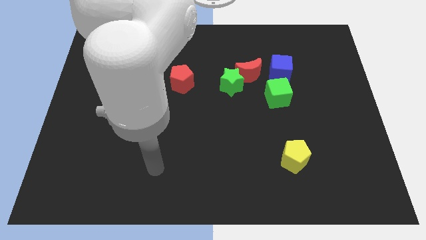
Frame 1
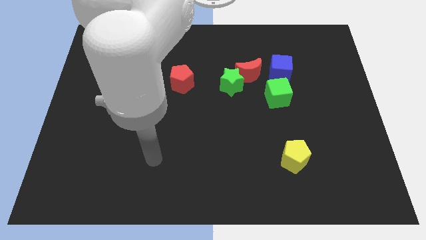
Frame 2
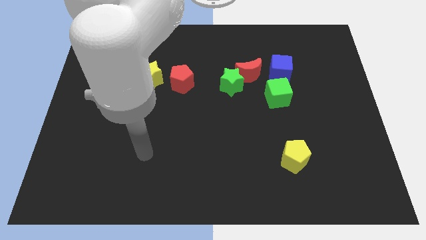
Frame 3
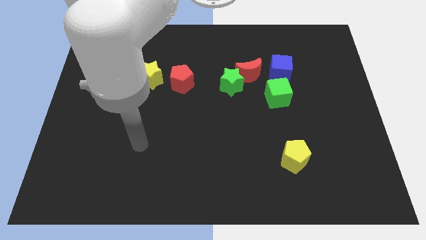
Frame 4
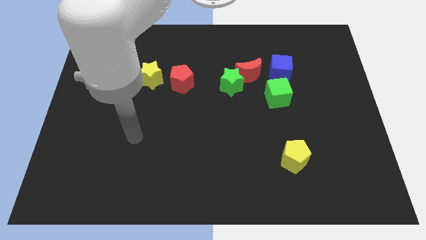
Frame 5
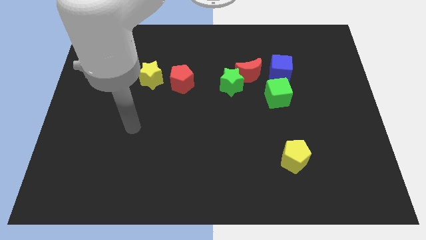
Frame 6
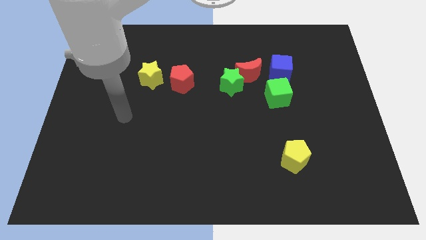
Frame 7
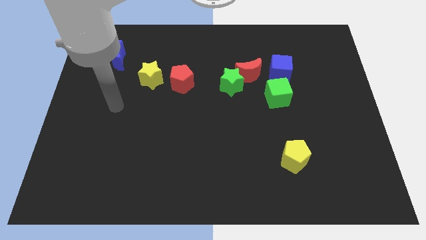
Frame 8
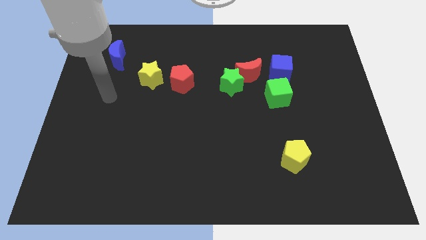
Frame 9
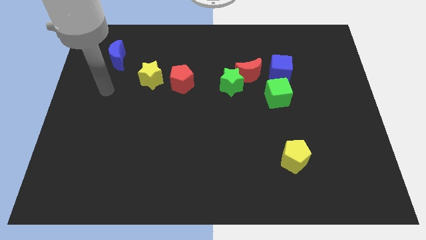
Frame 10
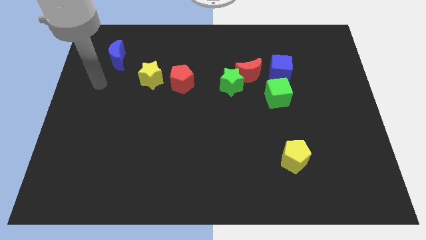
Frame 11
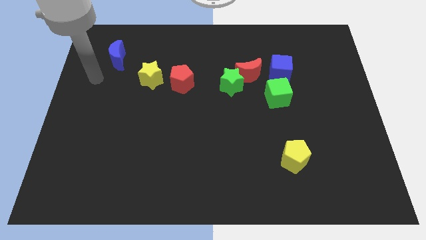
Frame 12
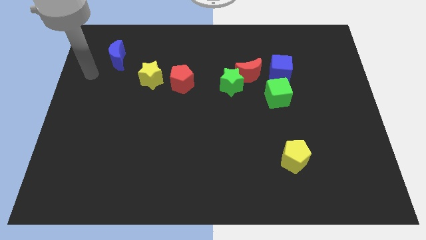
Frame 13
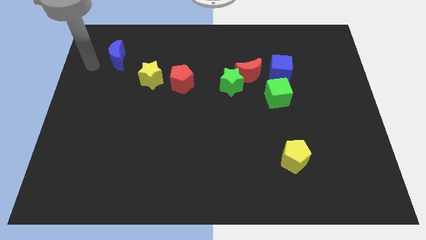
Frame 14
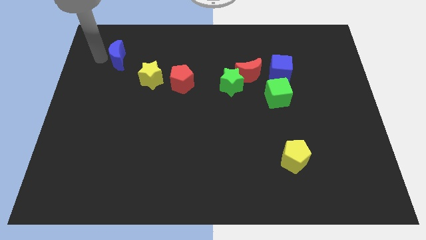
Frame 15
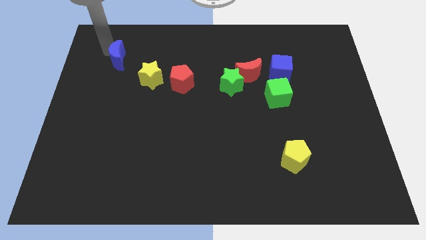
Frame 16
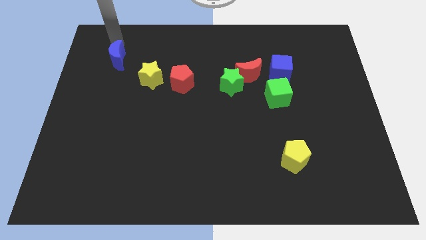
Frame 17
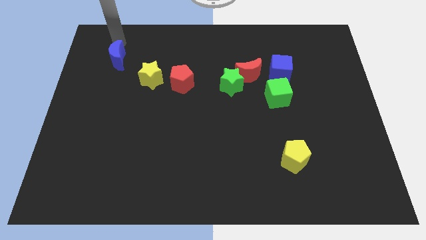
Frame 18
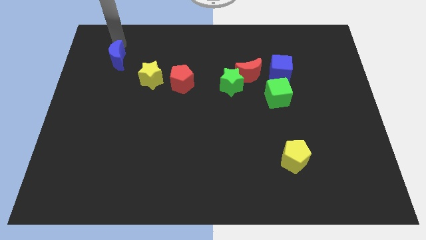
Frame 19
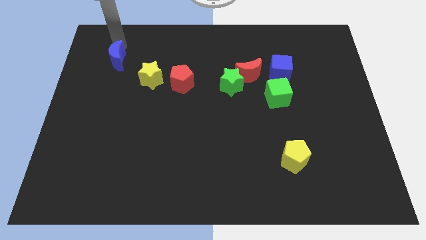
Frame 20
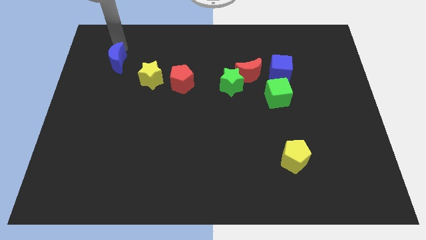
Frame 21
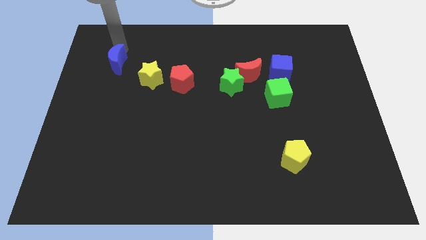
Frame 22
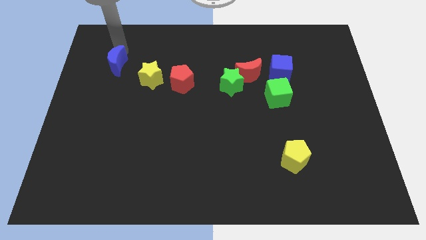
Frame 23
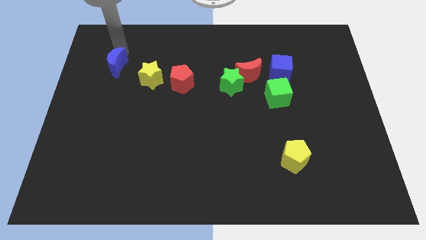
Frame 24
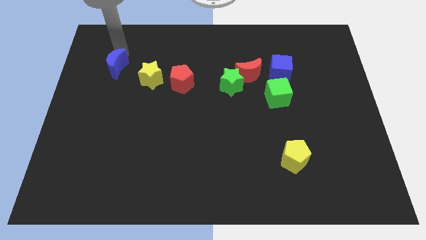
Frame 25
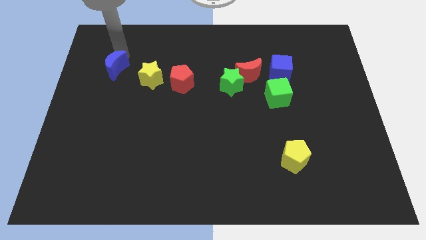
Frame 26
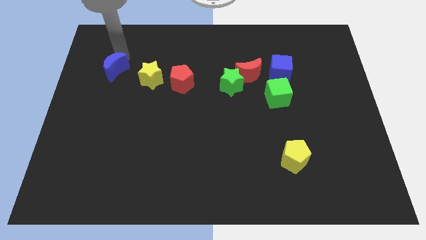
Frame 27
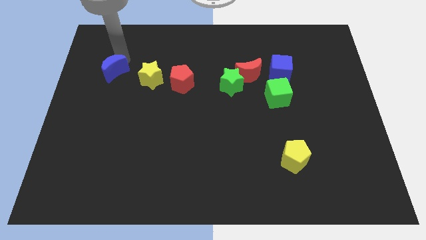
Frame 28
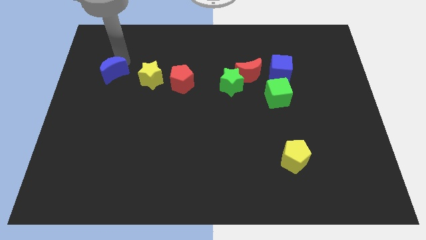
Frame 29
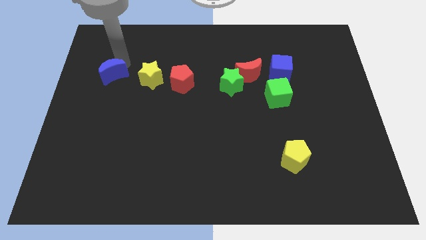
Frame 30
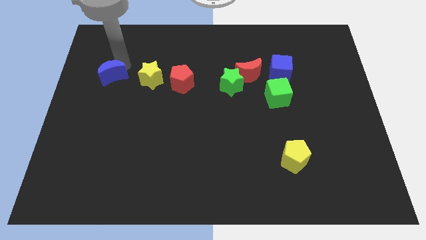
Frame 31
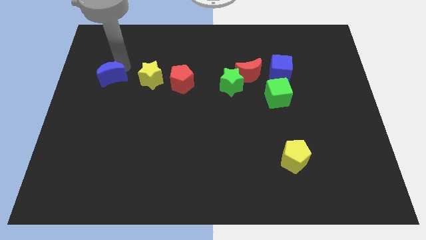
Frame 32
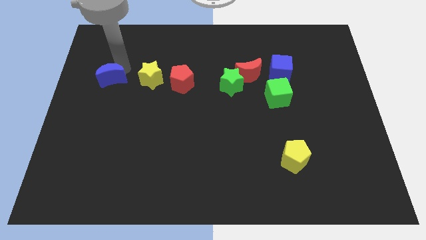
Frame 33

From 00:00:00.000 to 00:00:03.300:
slide the blue moon downwards somewhat

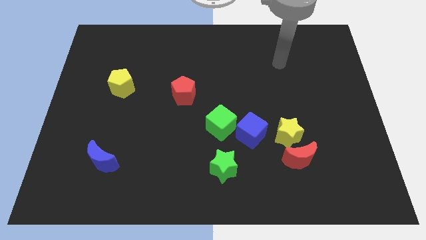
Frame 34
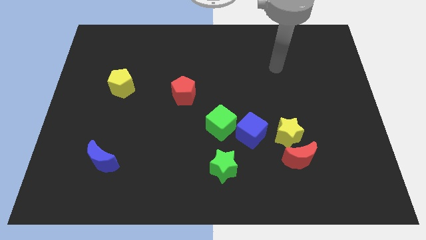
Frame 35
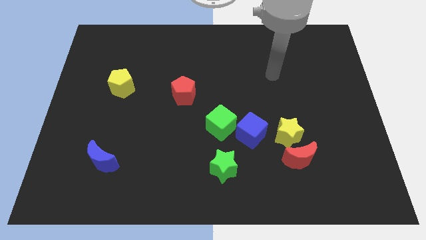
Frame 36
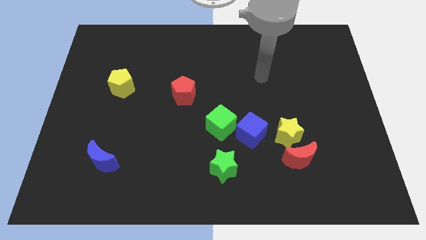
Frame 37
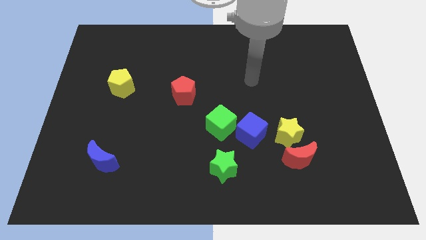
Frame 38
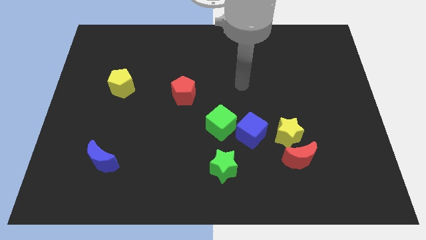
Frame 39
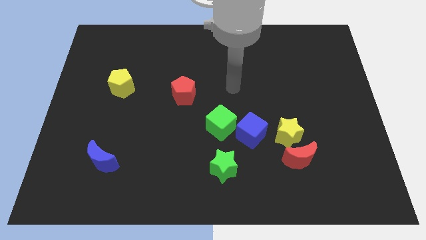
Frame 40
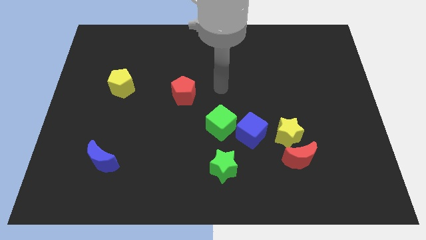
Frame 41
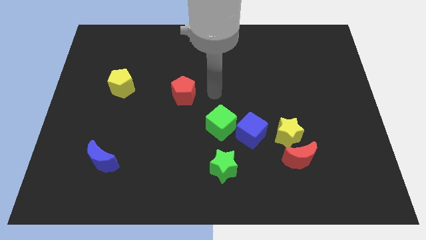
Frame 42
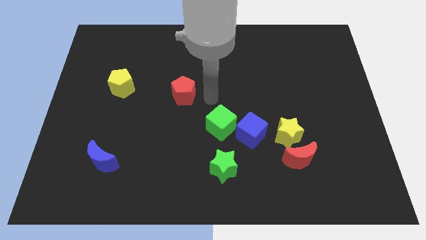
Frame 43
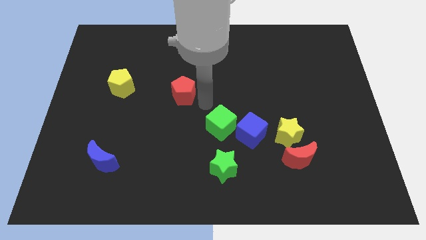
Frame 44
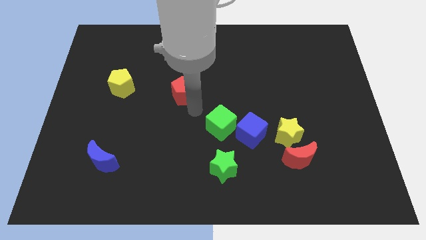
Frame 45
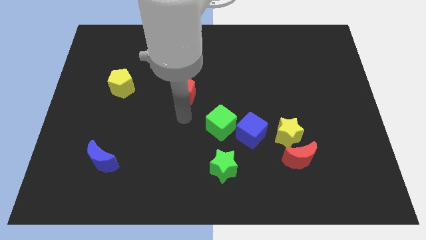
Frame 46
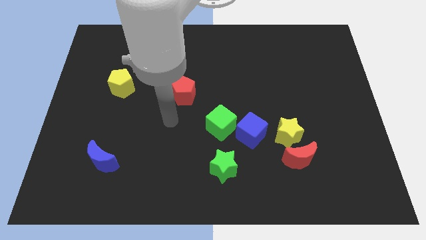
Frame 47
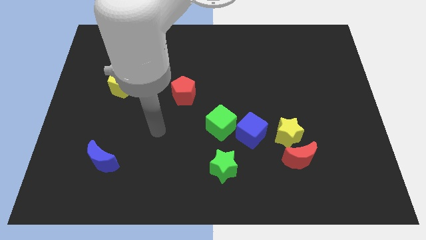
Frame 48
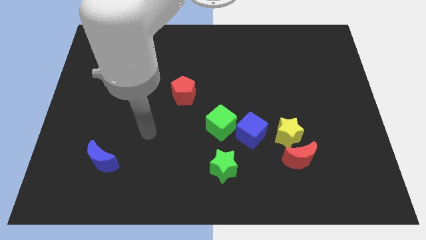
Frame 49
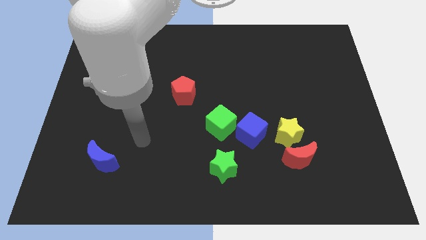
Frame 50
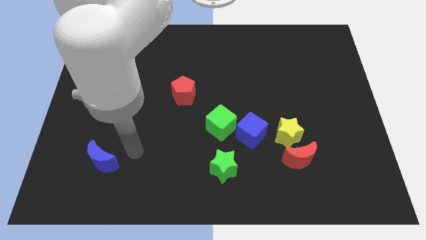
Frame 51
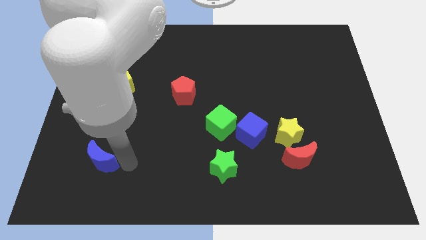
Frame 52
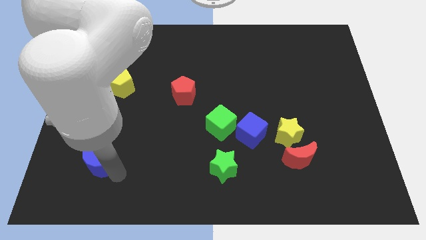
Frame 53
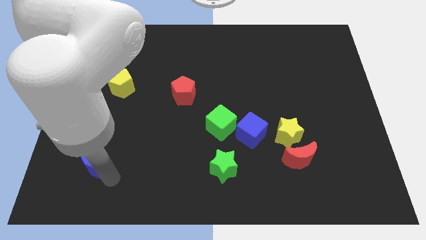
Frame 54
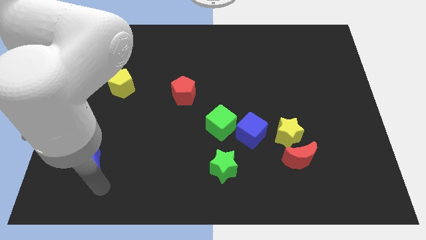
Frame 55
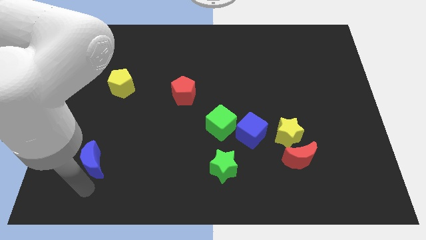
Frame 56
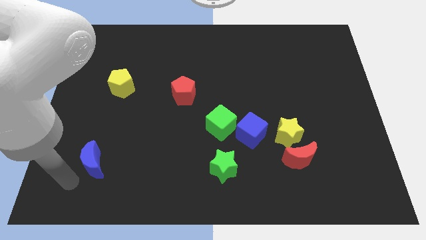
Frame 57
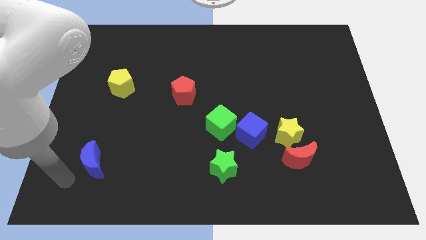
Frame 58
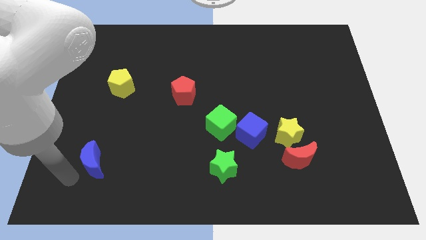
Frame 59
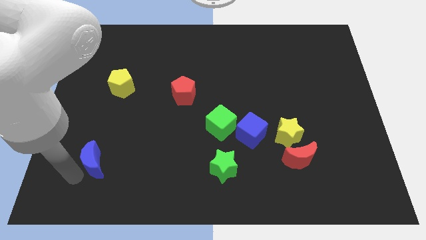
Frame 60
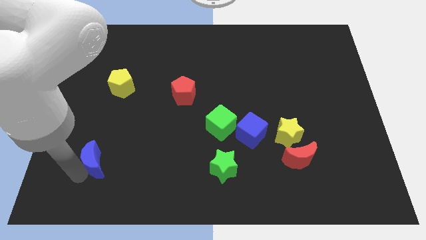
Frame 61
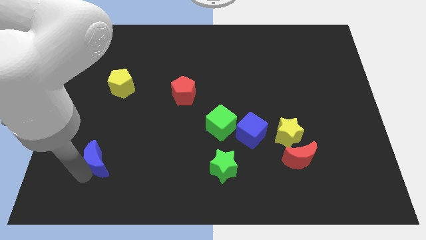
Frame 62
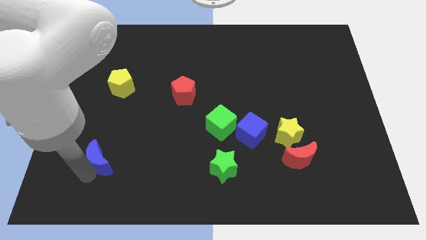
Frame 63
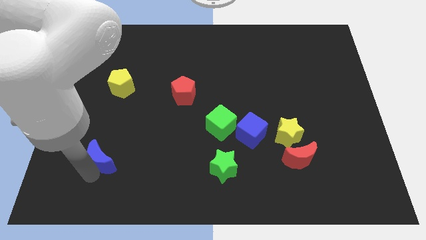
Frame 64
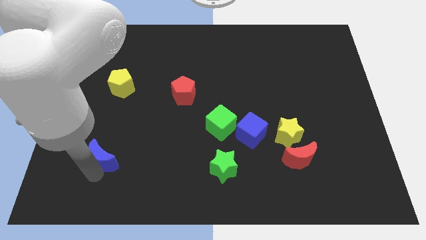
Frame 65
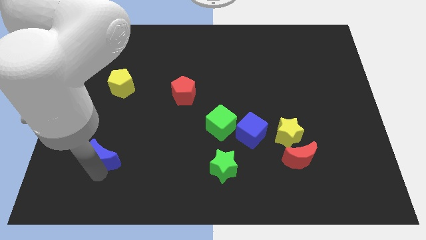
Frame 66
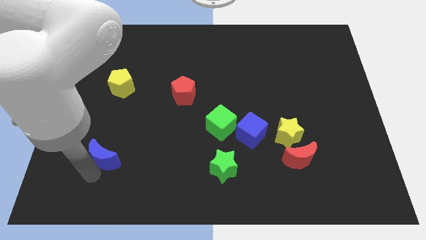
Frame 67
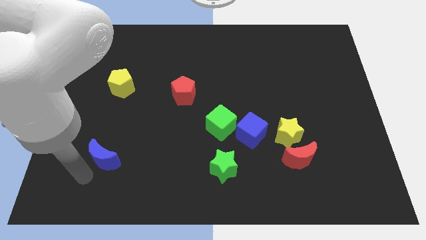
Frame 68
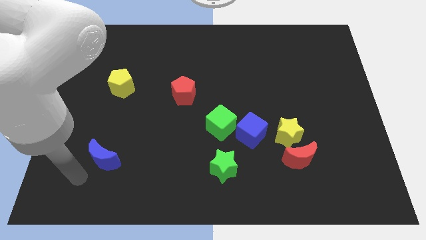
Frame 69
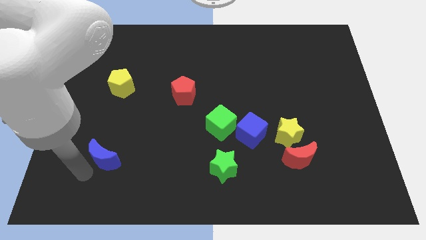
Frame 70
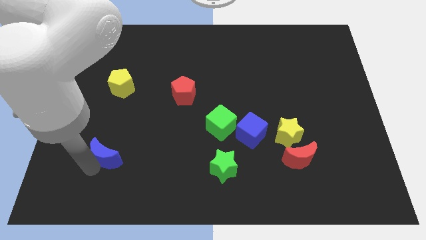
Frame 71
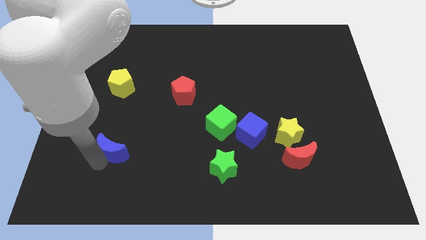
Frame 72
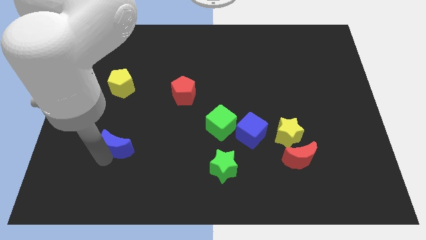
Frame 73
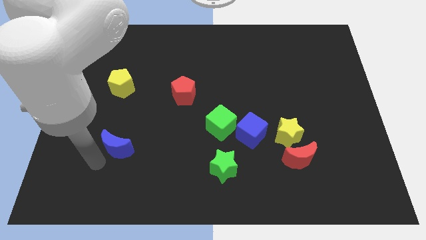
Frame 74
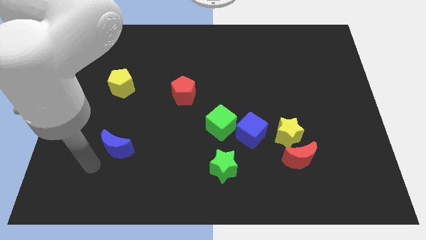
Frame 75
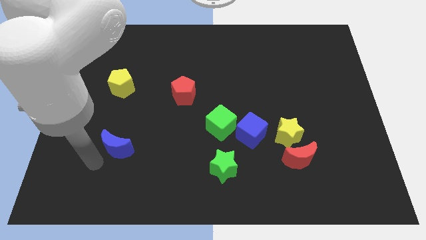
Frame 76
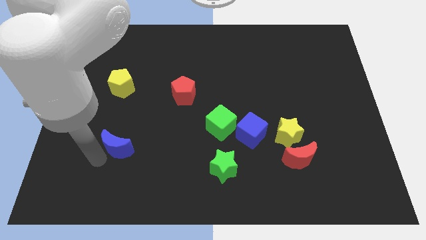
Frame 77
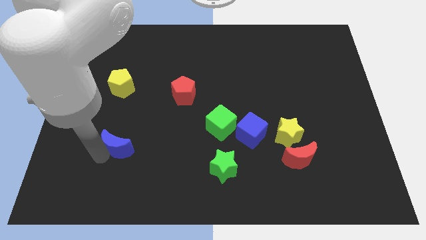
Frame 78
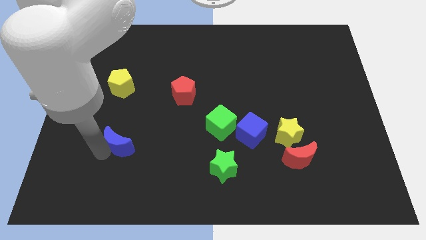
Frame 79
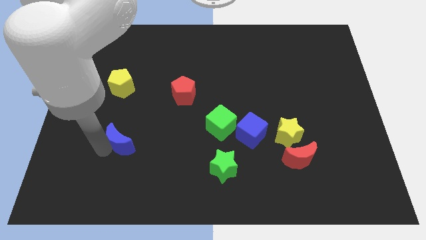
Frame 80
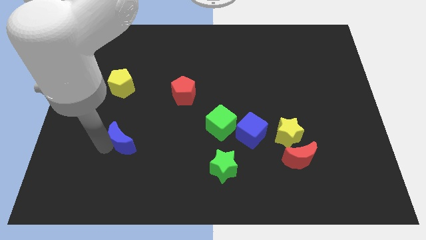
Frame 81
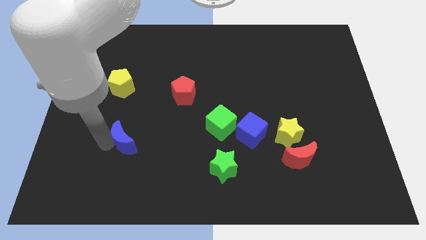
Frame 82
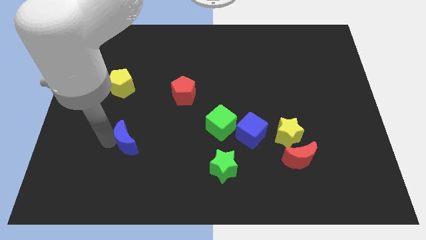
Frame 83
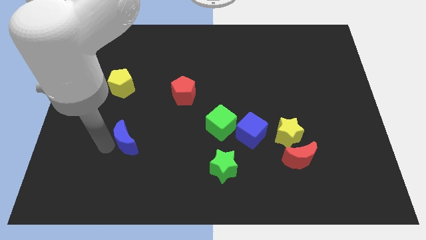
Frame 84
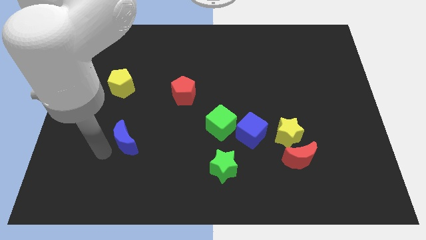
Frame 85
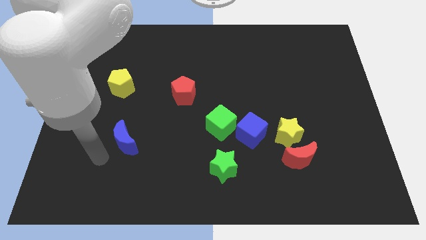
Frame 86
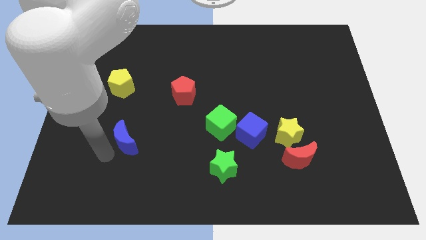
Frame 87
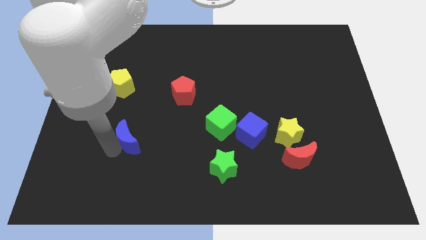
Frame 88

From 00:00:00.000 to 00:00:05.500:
slide the blue moon a bit upwards and right
